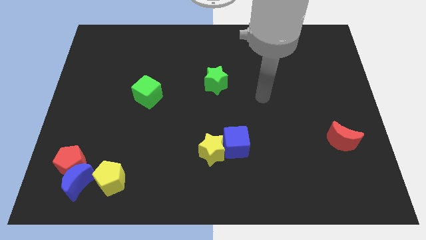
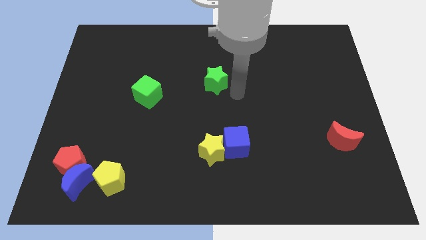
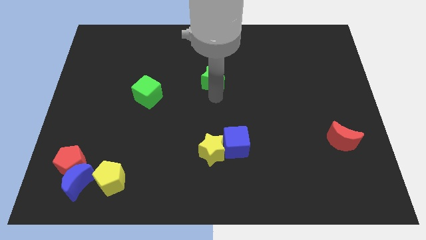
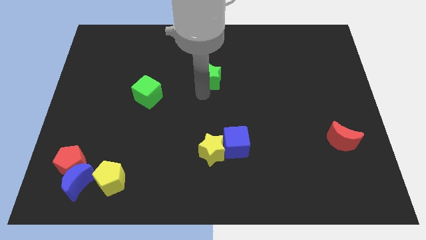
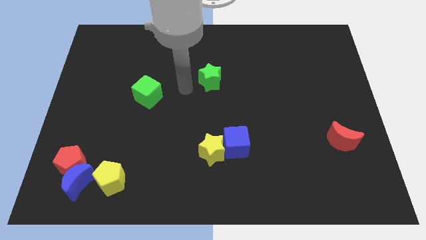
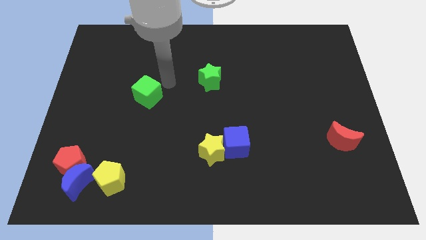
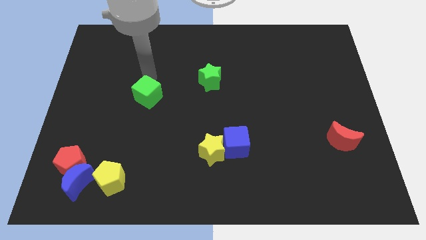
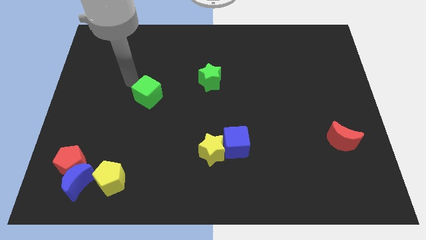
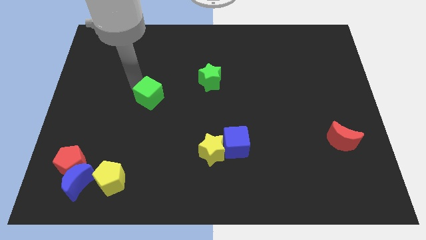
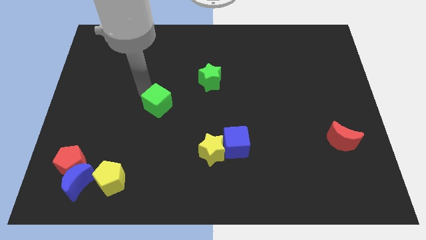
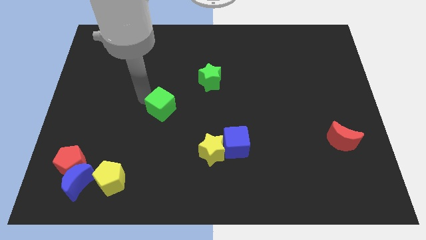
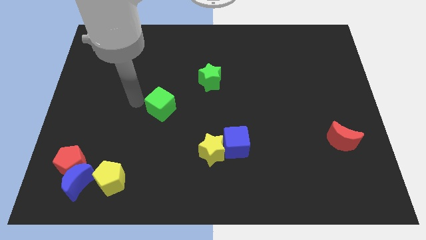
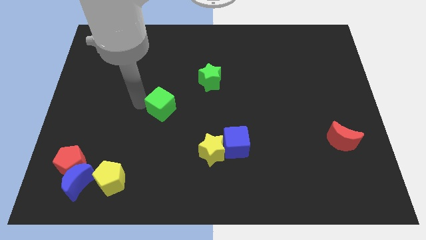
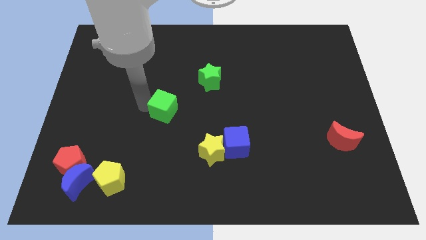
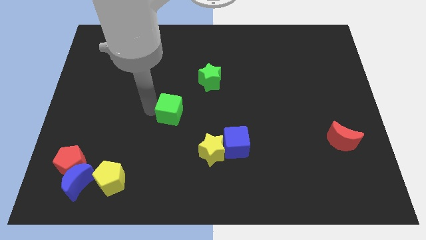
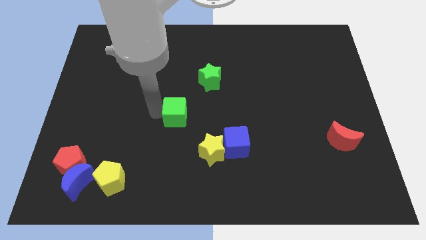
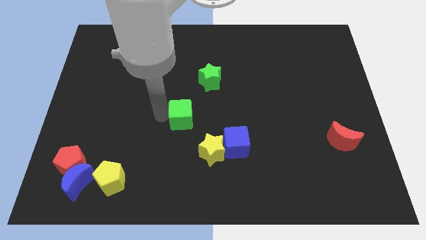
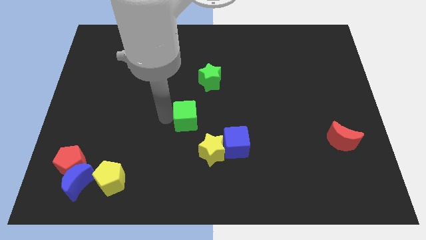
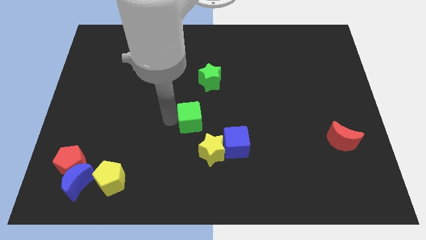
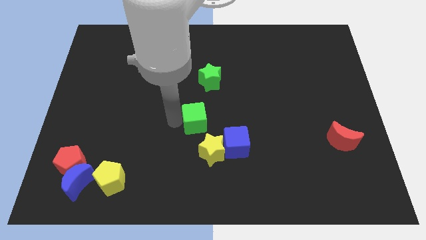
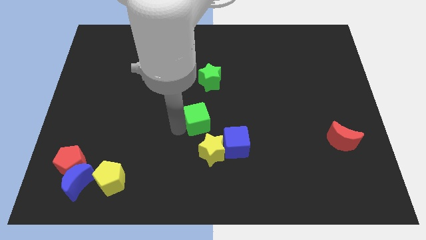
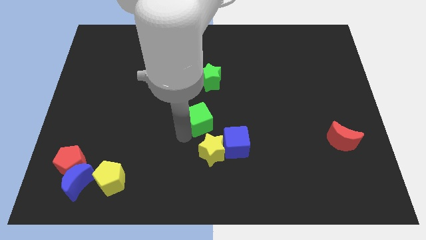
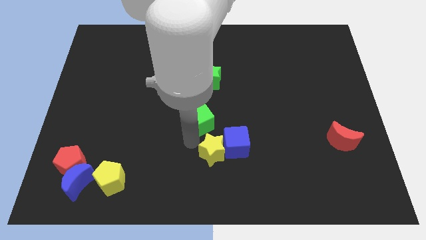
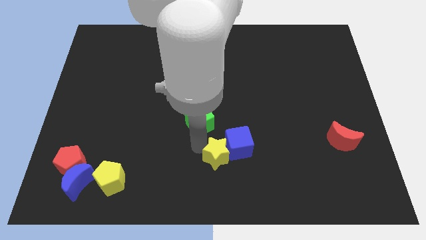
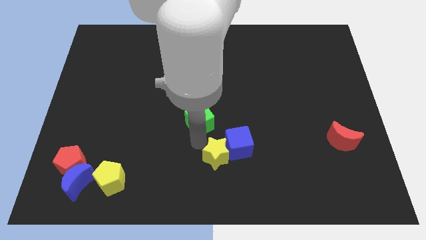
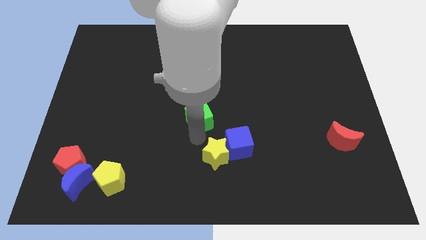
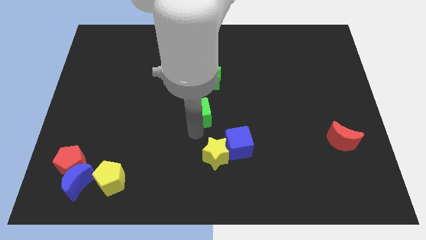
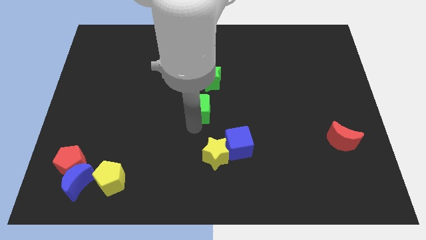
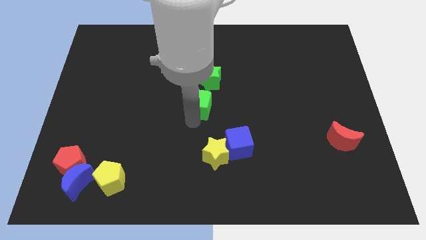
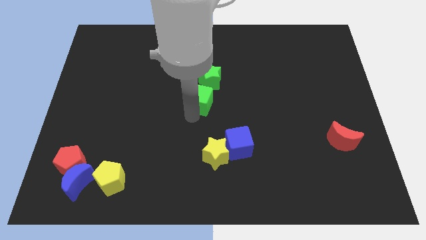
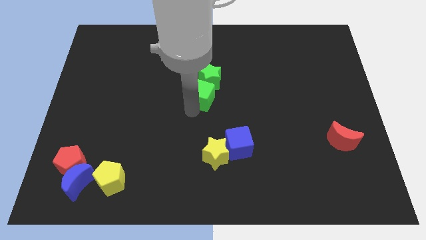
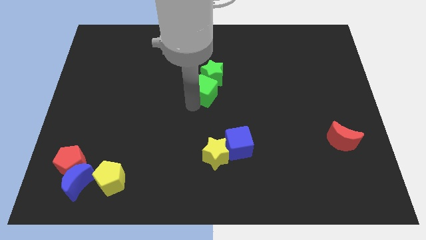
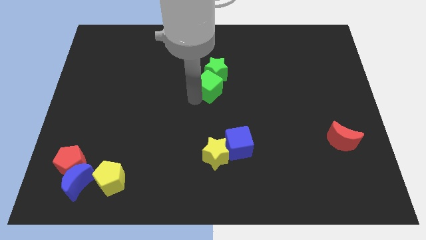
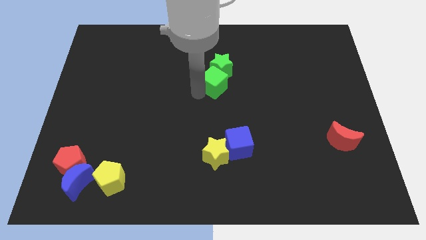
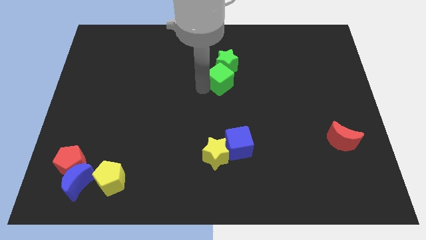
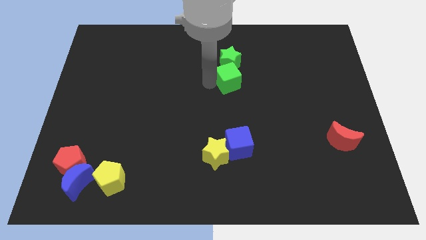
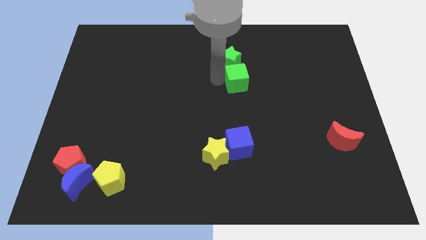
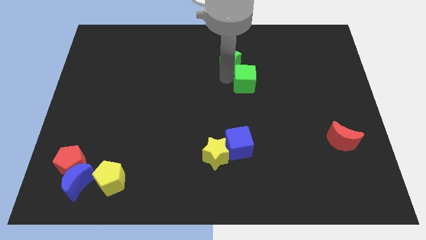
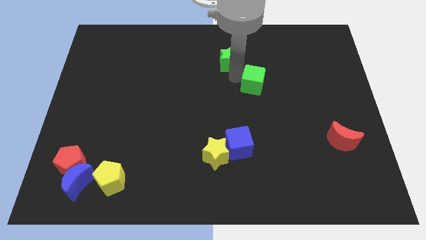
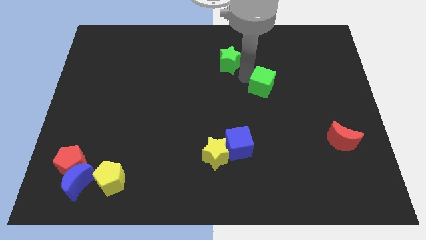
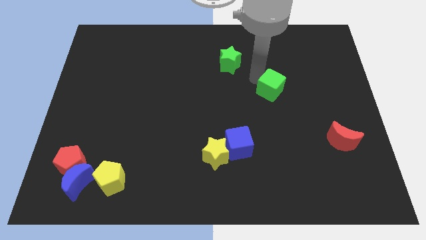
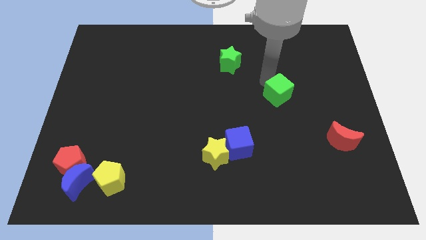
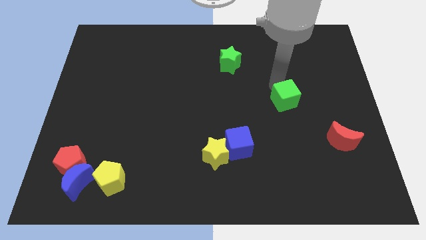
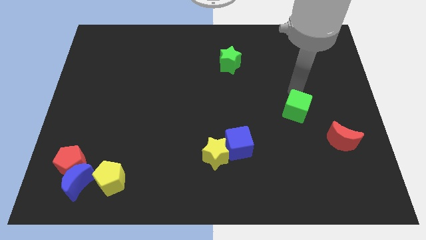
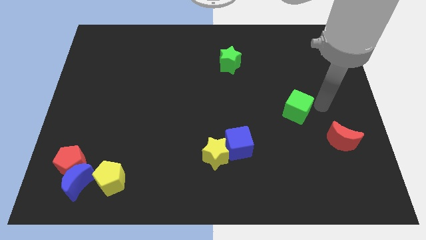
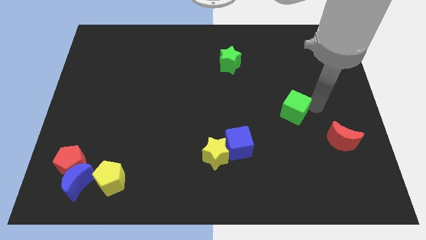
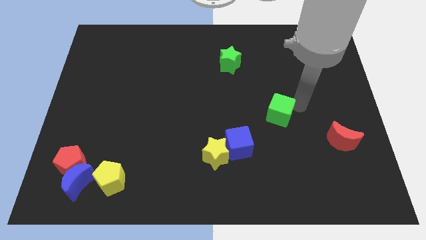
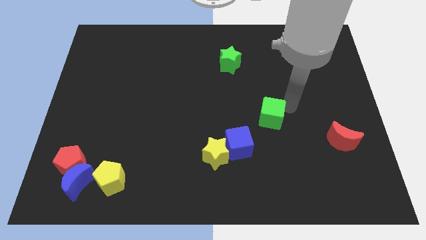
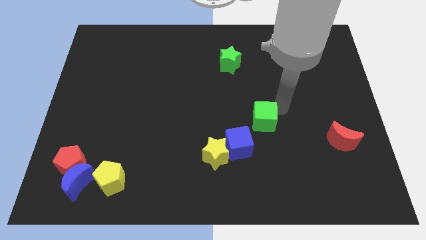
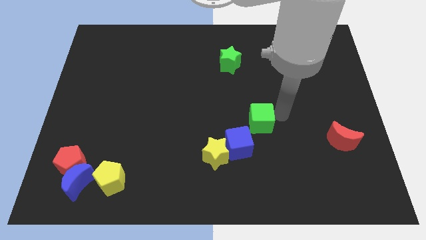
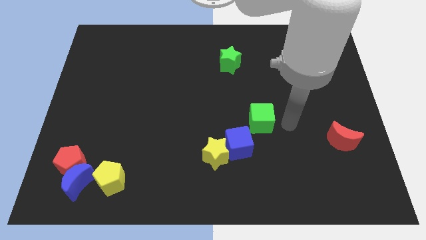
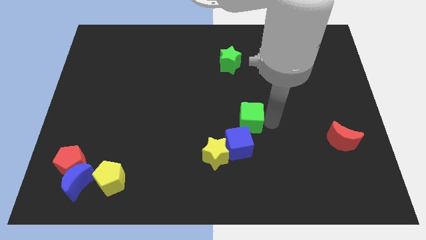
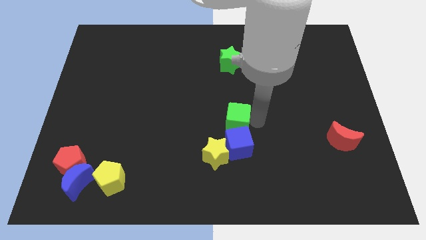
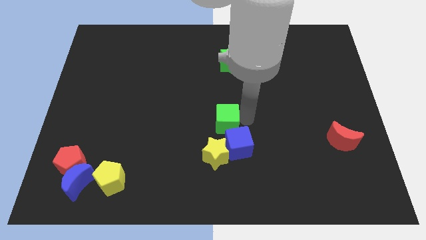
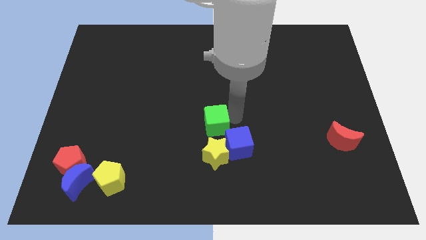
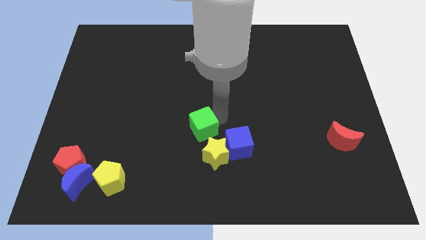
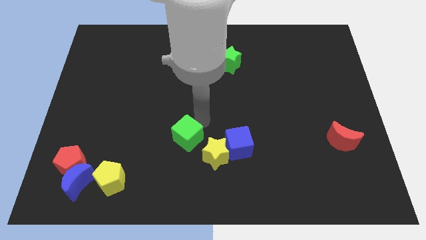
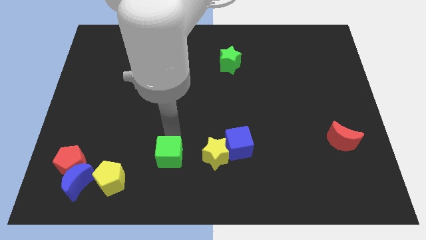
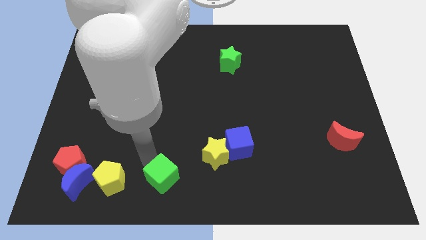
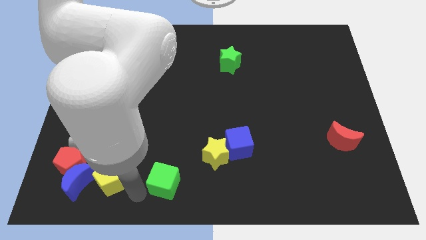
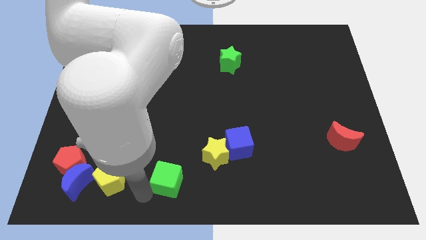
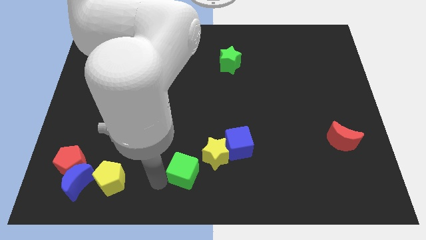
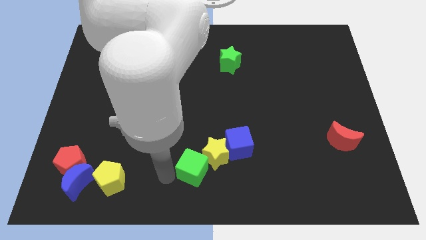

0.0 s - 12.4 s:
slide the green cube down and then right

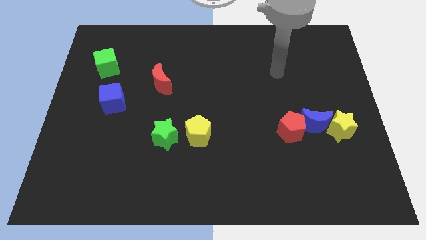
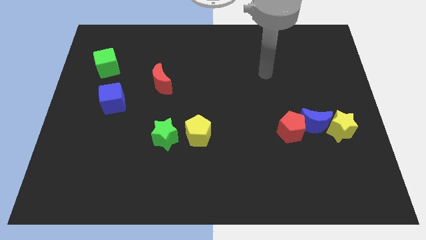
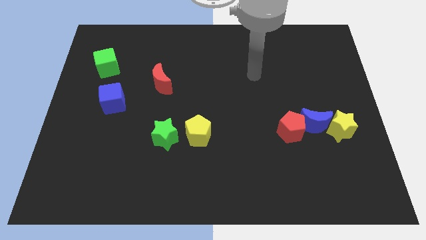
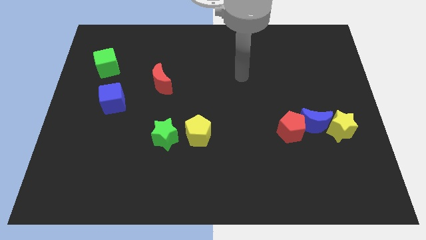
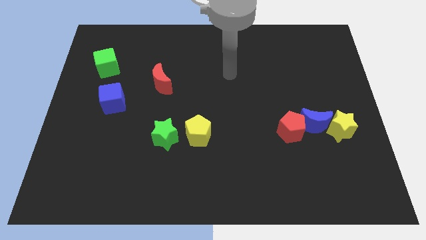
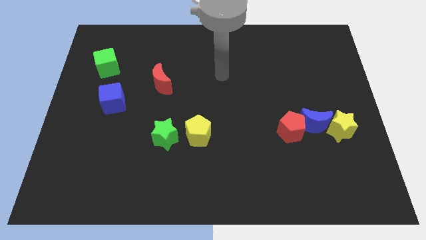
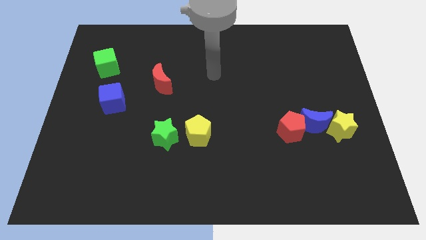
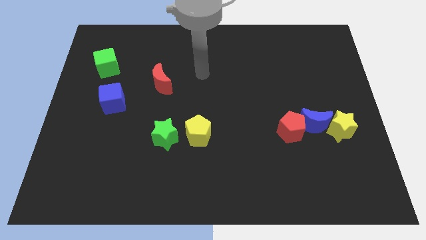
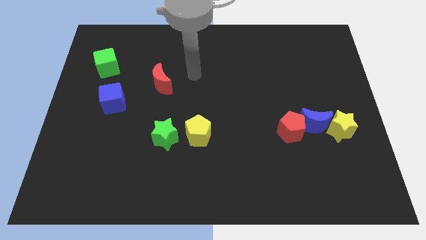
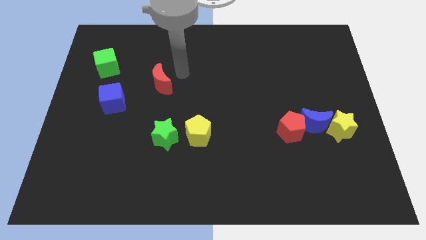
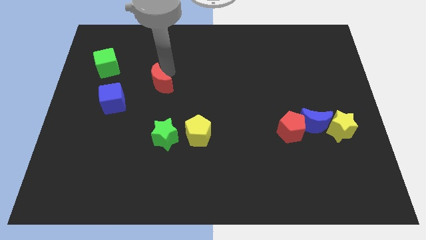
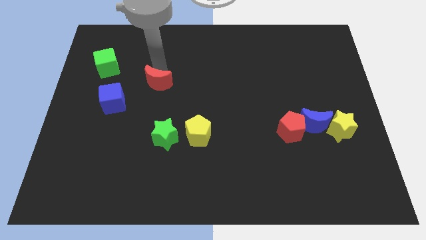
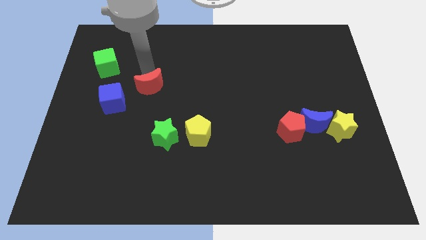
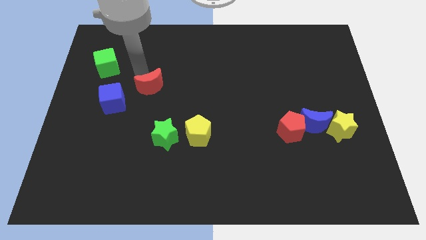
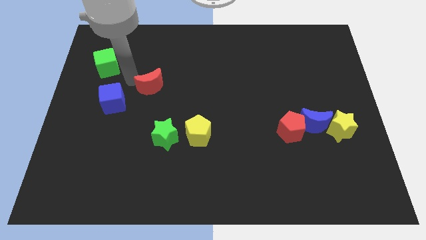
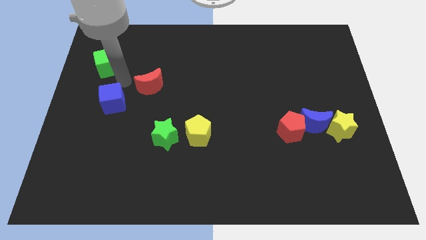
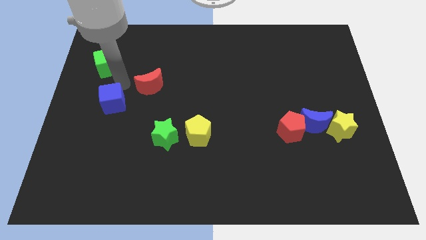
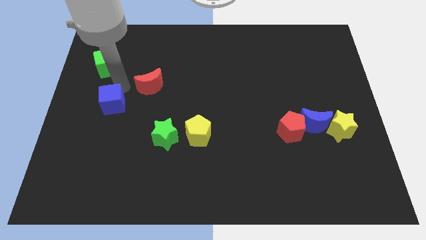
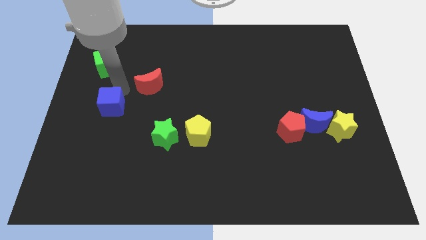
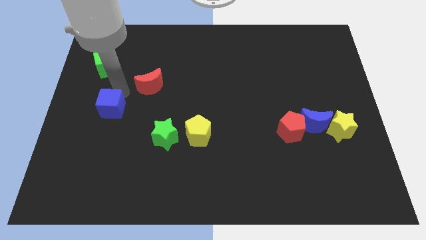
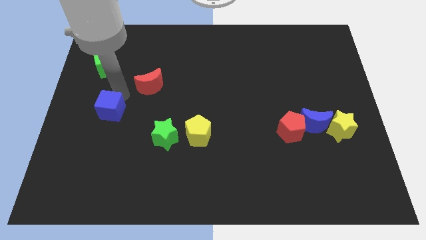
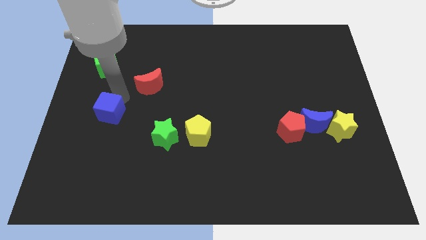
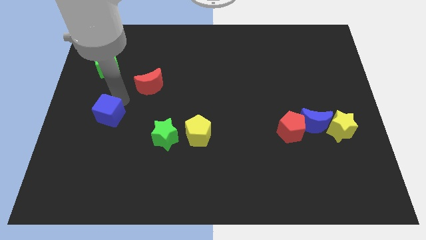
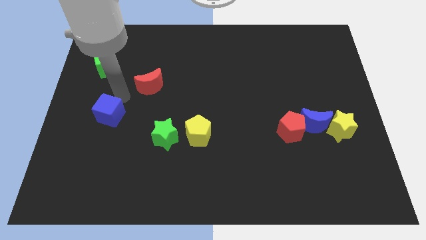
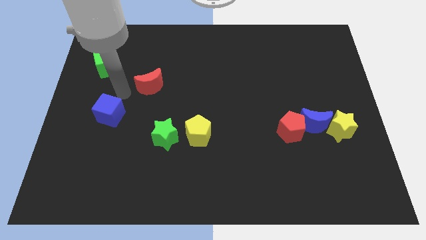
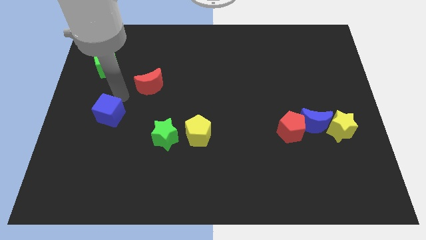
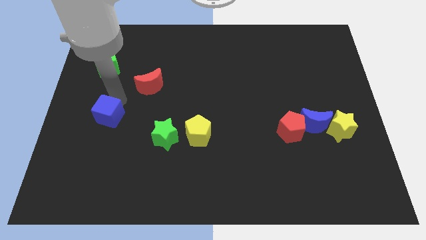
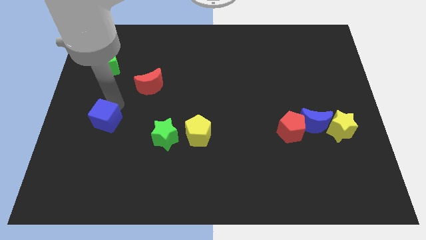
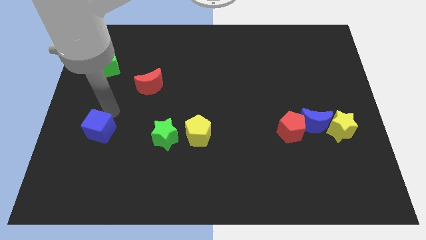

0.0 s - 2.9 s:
slide the blue cube downwards slightly
